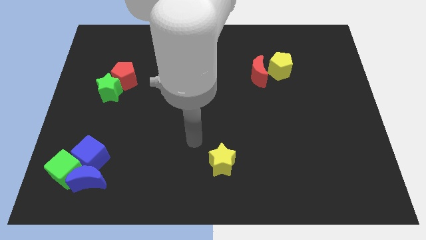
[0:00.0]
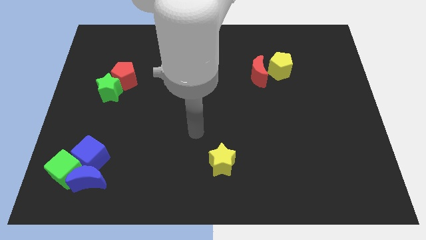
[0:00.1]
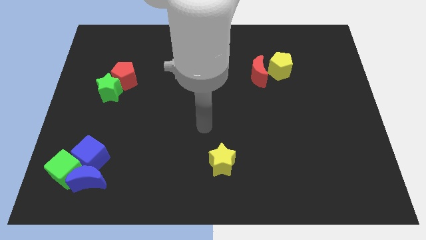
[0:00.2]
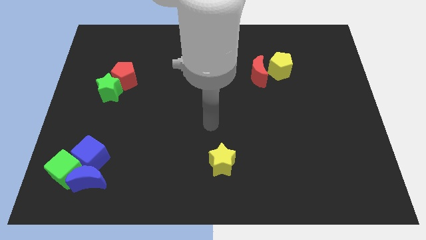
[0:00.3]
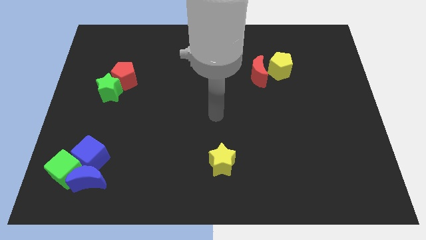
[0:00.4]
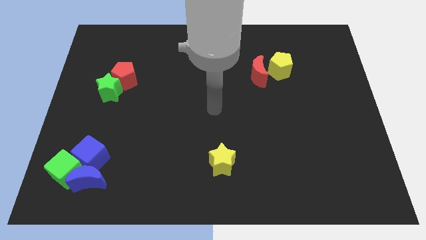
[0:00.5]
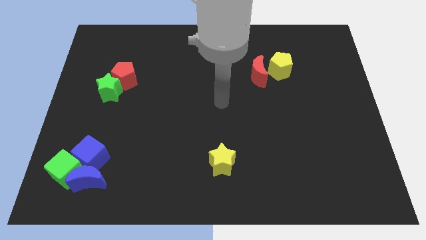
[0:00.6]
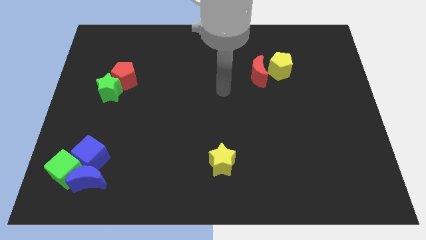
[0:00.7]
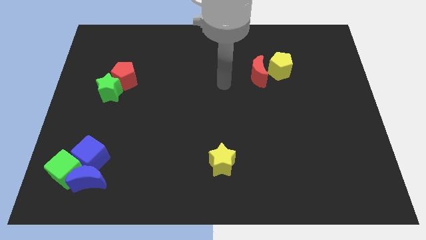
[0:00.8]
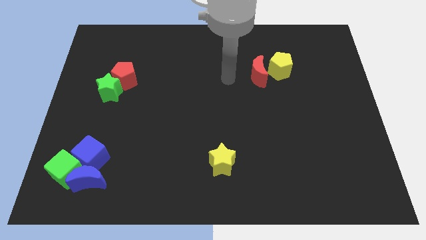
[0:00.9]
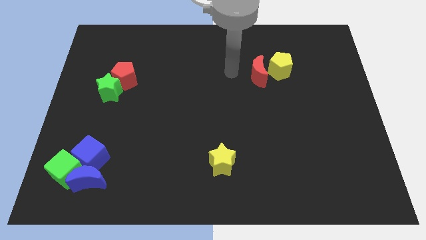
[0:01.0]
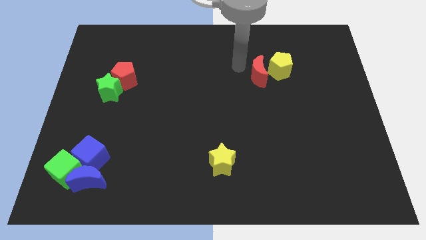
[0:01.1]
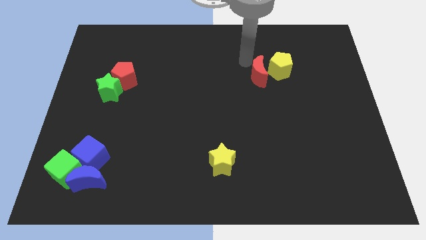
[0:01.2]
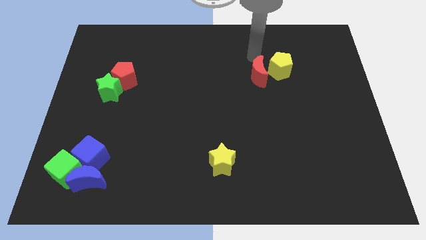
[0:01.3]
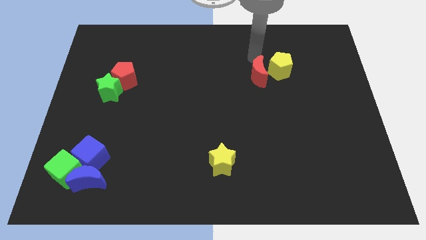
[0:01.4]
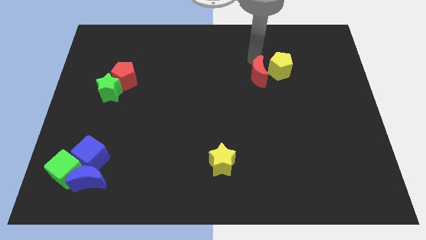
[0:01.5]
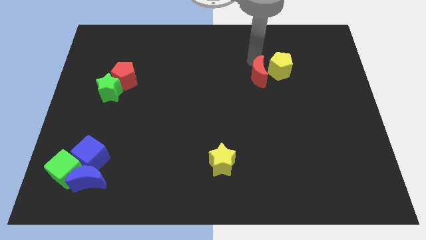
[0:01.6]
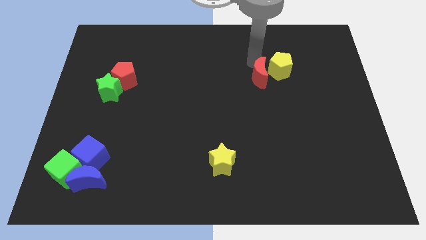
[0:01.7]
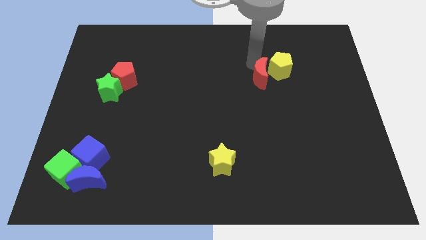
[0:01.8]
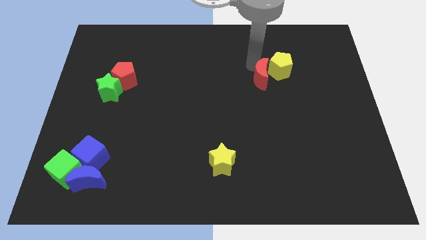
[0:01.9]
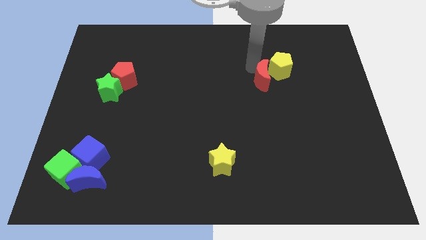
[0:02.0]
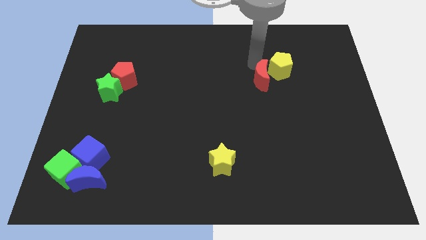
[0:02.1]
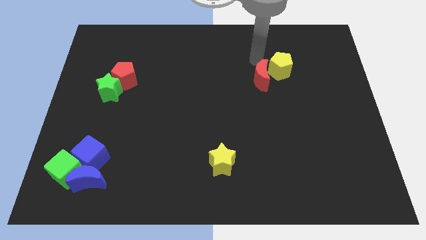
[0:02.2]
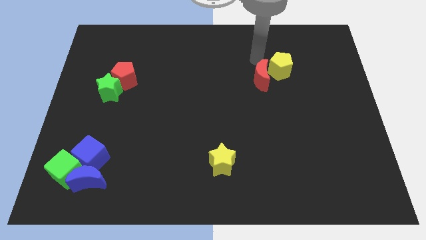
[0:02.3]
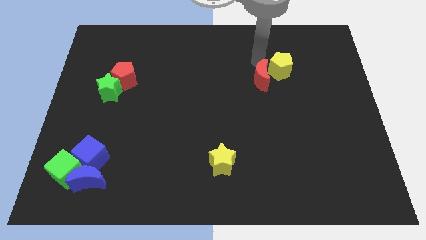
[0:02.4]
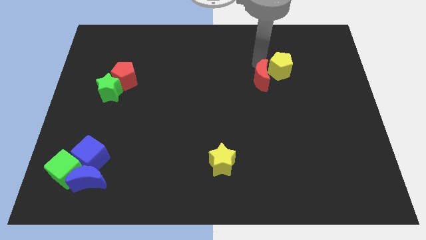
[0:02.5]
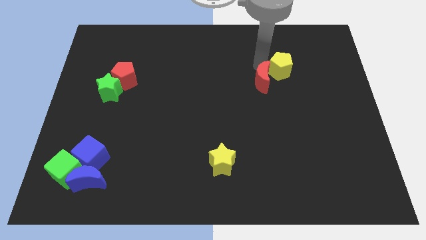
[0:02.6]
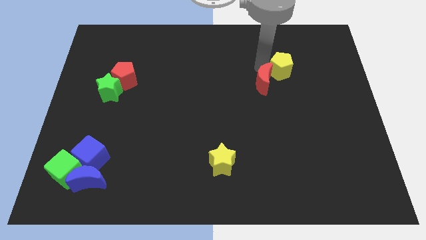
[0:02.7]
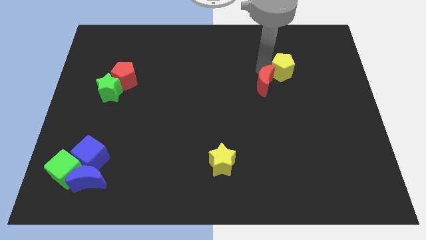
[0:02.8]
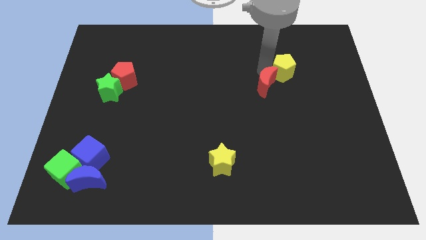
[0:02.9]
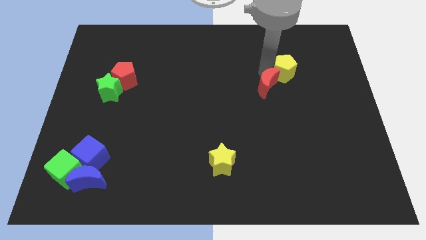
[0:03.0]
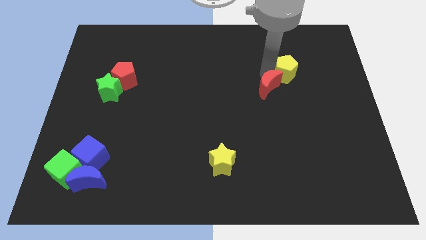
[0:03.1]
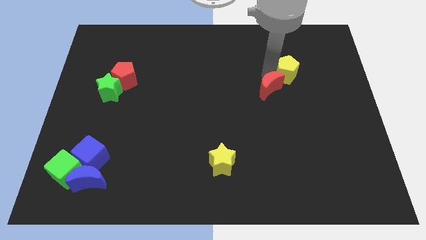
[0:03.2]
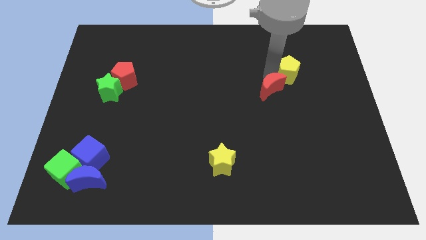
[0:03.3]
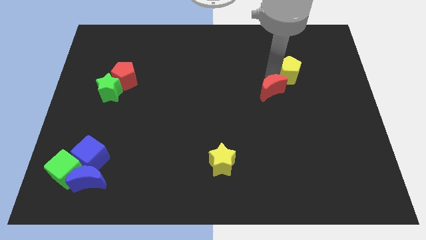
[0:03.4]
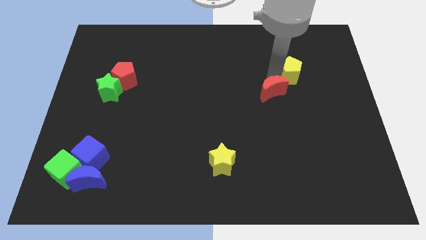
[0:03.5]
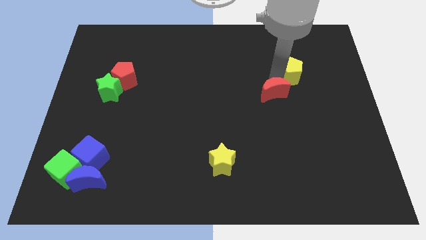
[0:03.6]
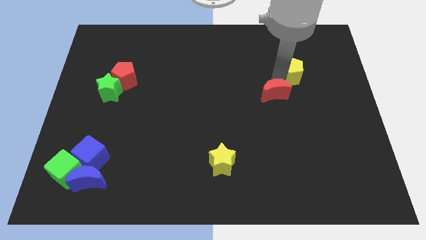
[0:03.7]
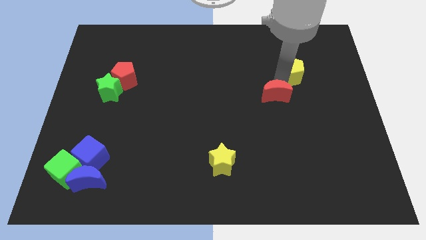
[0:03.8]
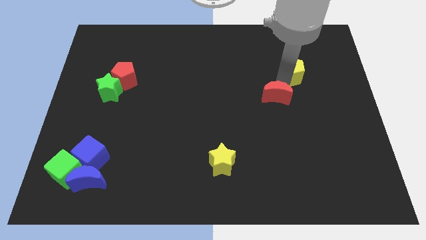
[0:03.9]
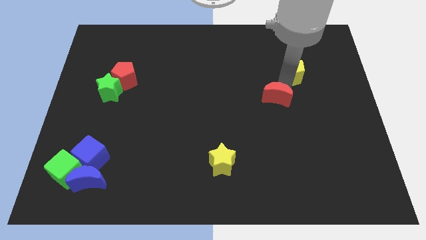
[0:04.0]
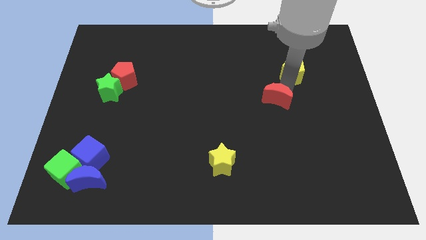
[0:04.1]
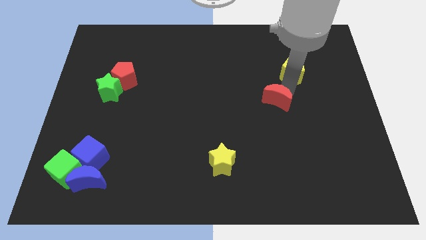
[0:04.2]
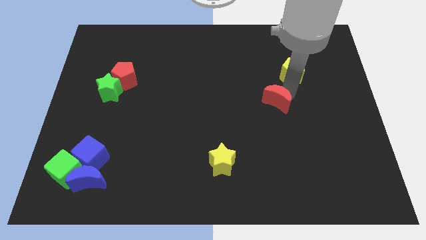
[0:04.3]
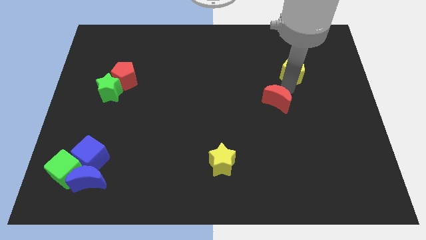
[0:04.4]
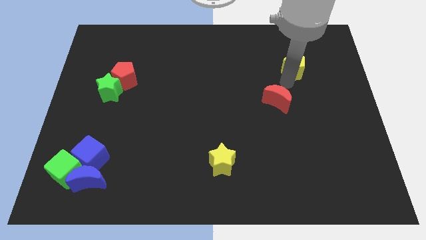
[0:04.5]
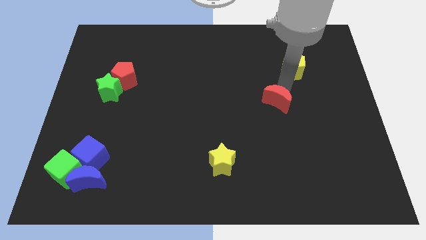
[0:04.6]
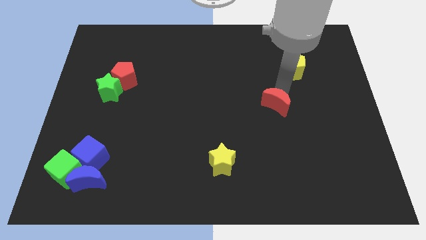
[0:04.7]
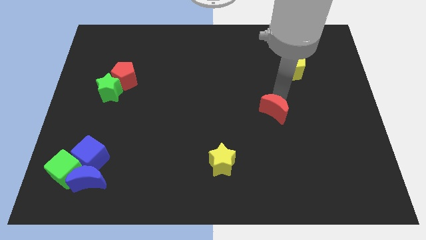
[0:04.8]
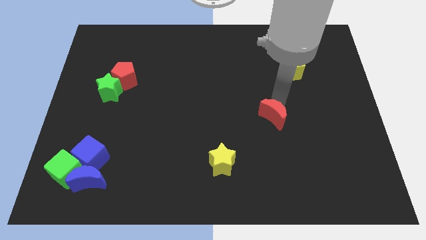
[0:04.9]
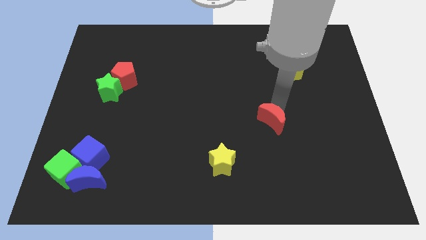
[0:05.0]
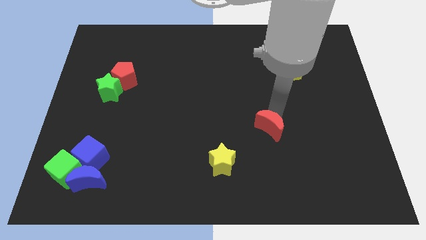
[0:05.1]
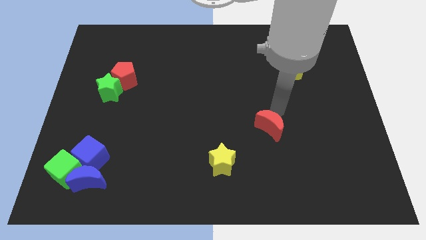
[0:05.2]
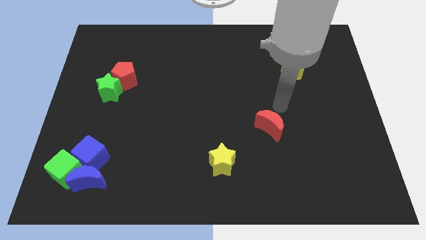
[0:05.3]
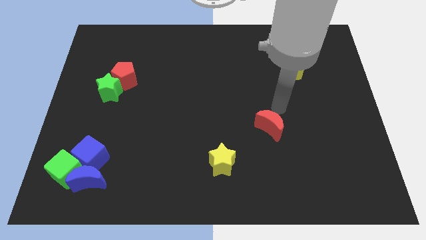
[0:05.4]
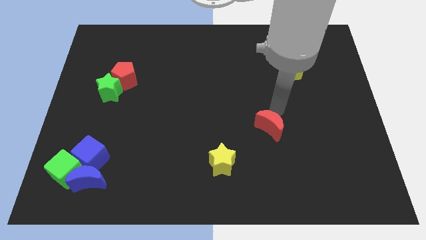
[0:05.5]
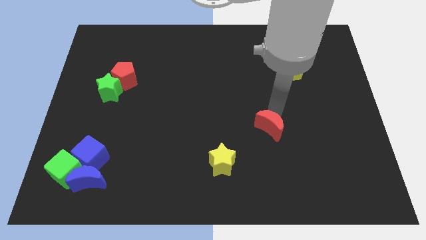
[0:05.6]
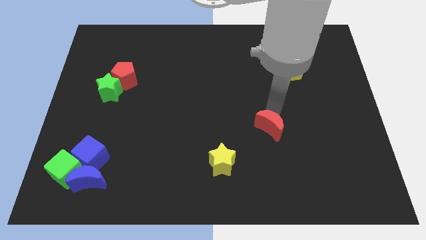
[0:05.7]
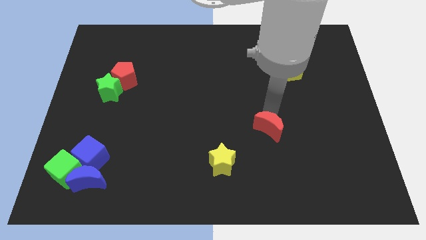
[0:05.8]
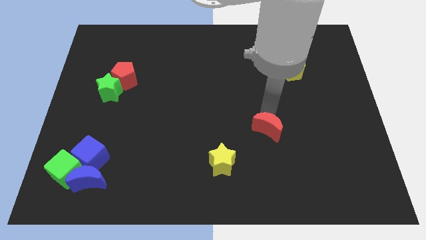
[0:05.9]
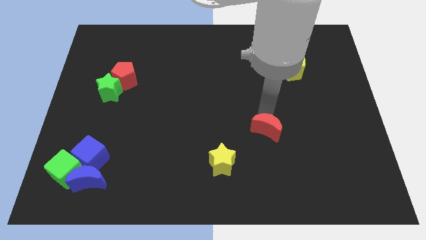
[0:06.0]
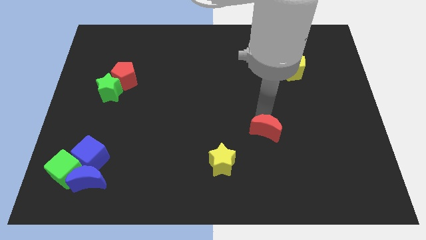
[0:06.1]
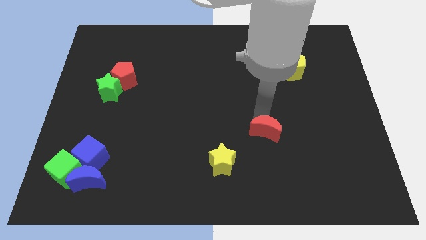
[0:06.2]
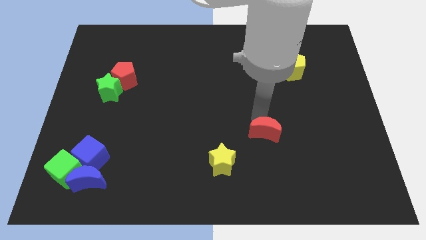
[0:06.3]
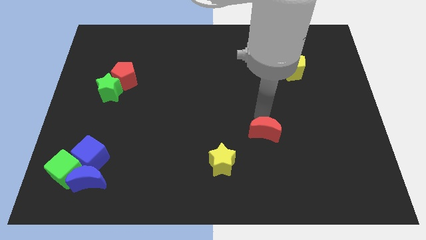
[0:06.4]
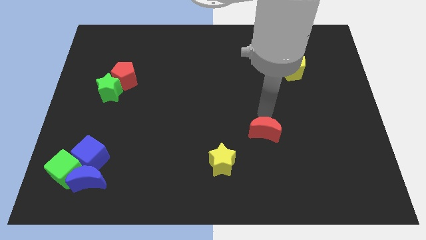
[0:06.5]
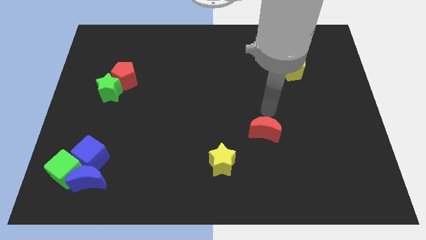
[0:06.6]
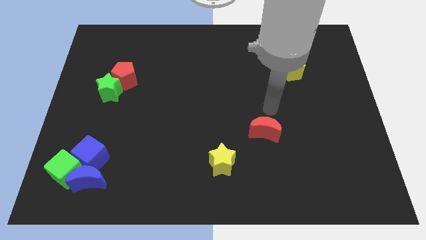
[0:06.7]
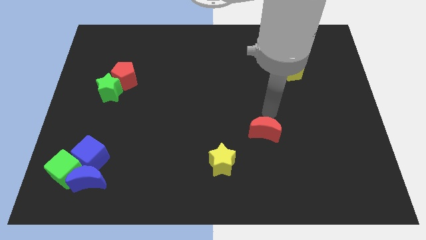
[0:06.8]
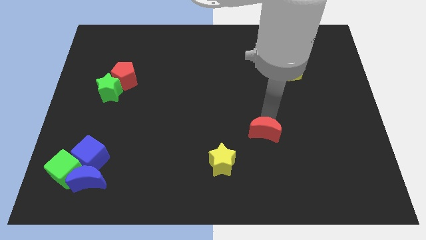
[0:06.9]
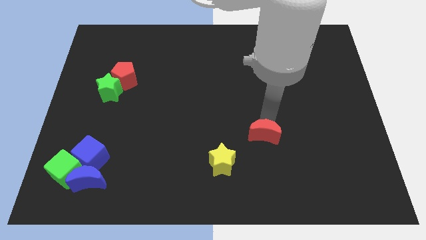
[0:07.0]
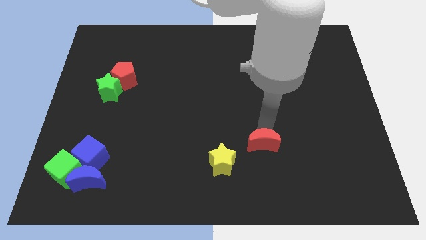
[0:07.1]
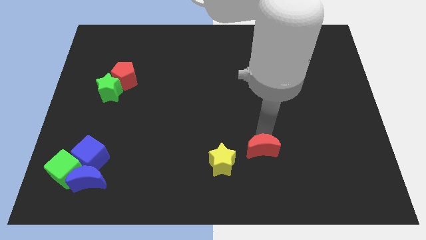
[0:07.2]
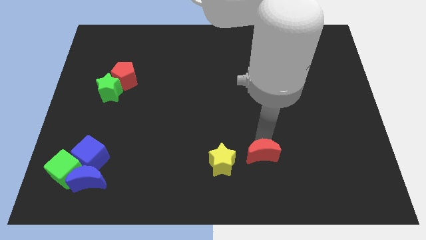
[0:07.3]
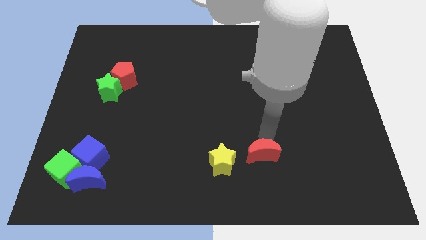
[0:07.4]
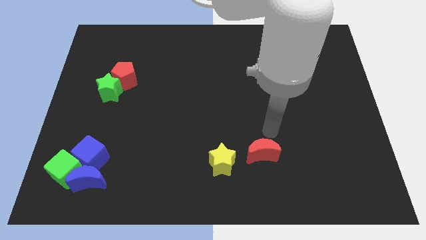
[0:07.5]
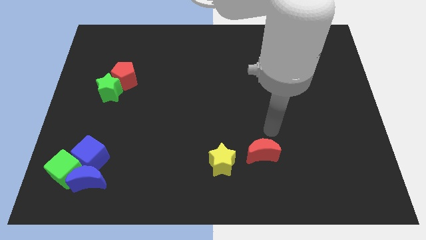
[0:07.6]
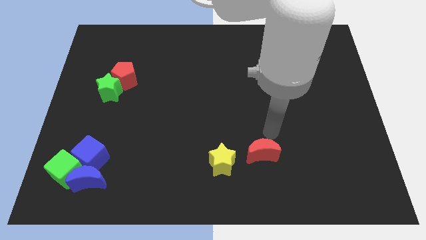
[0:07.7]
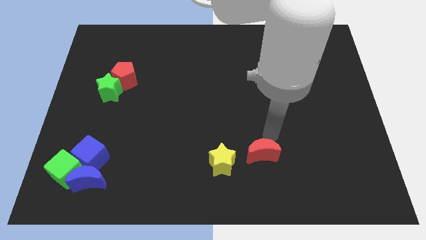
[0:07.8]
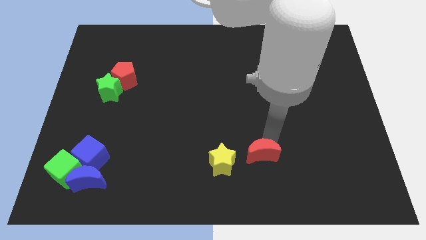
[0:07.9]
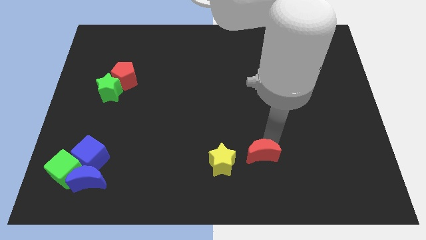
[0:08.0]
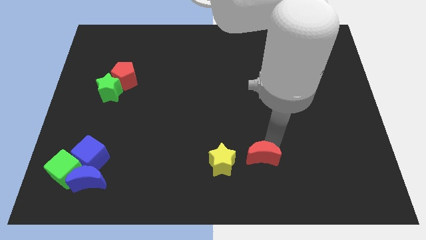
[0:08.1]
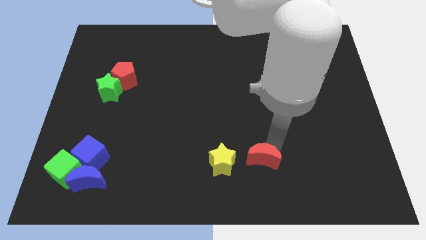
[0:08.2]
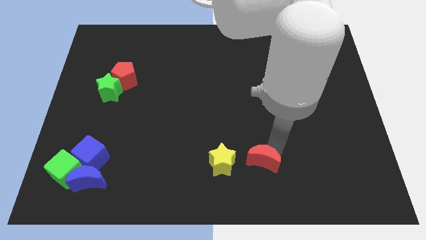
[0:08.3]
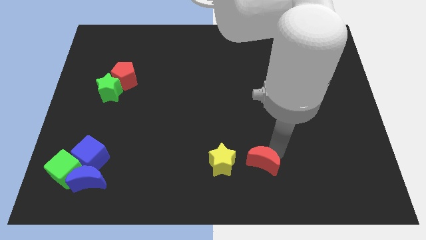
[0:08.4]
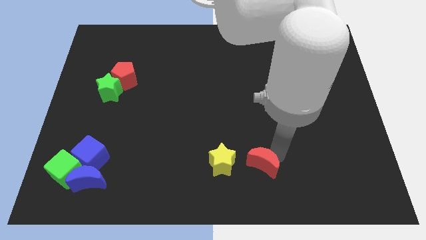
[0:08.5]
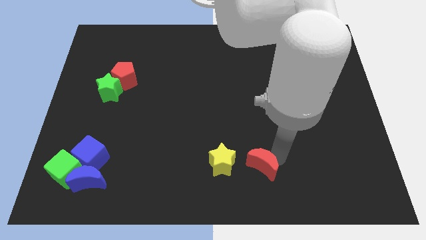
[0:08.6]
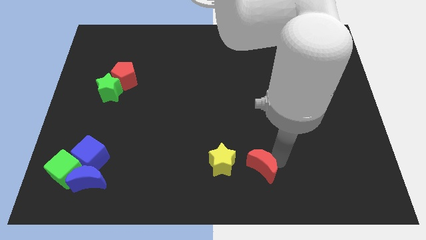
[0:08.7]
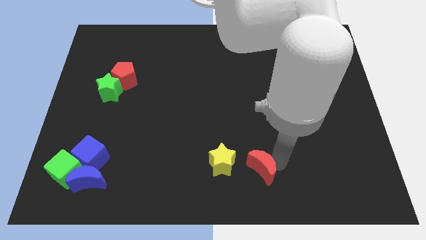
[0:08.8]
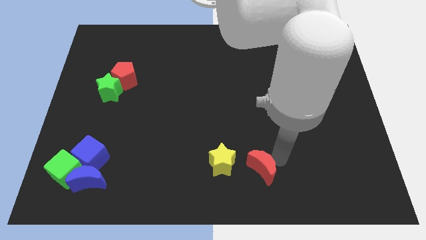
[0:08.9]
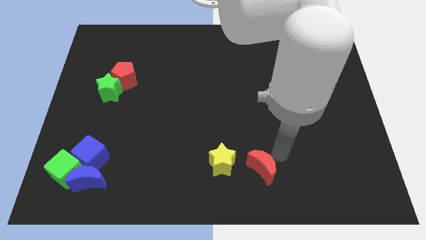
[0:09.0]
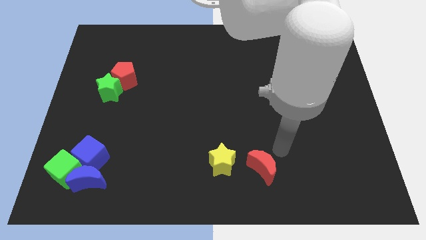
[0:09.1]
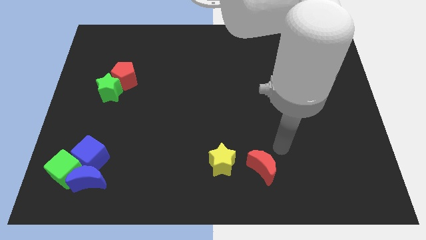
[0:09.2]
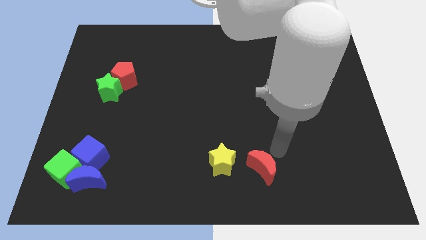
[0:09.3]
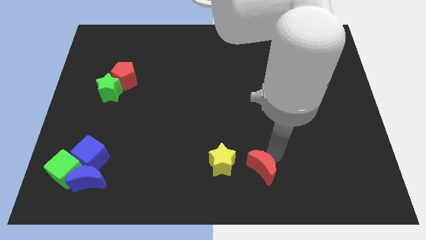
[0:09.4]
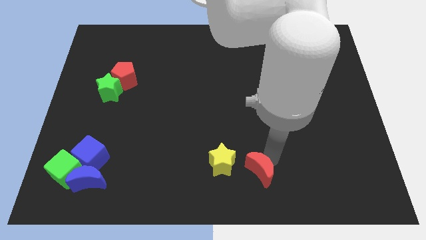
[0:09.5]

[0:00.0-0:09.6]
move the red moon to the bottom side
